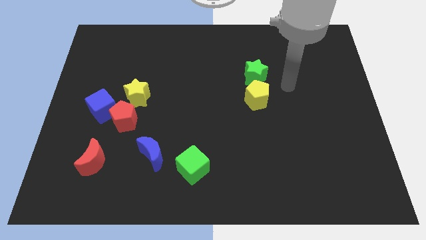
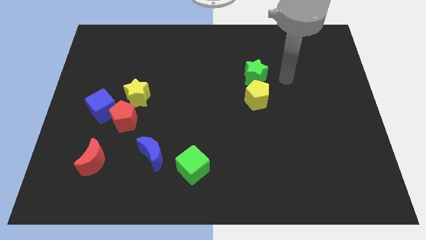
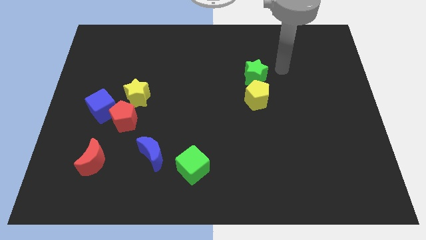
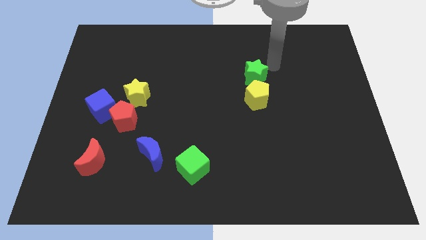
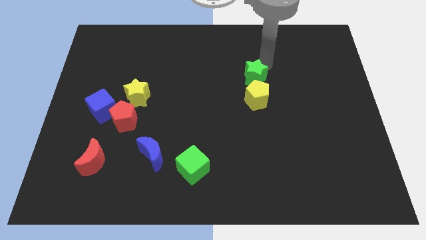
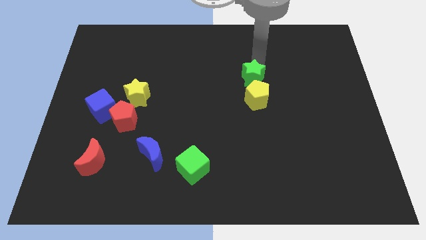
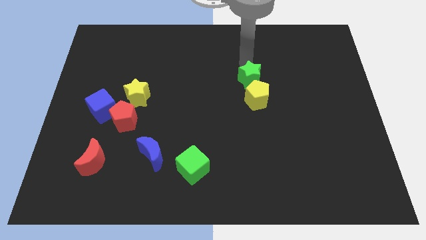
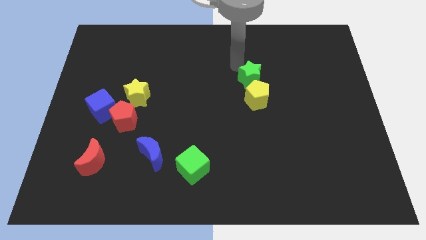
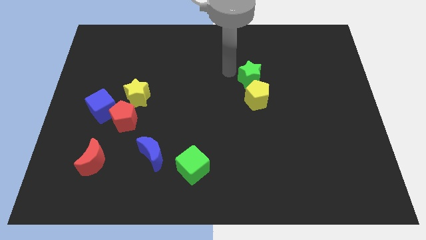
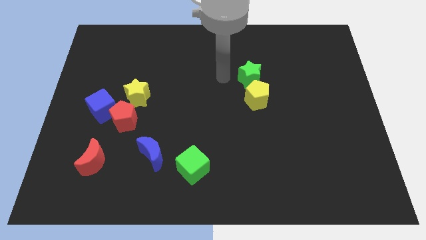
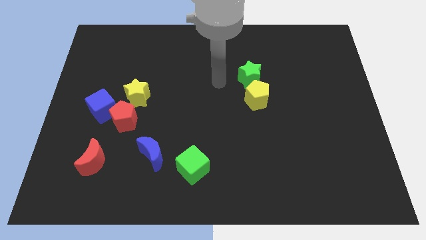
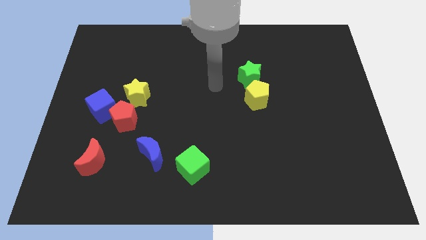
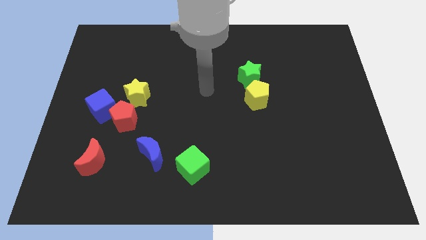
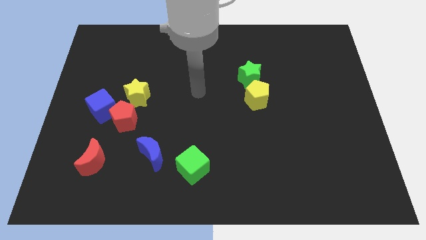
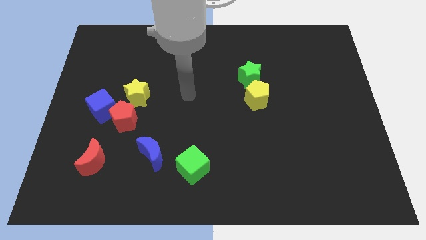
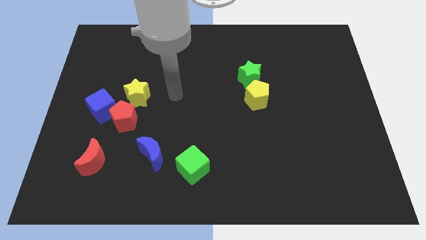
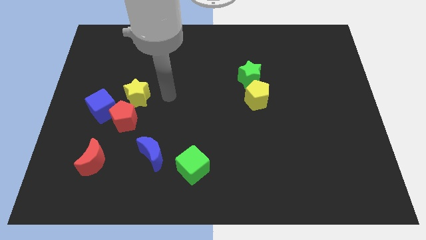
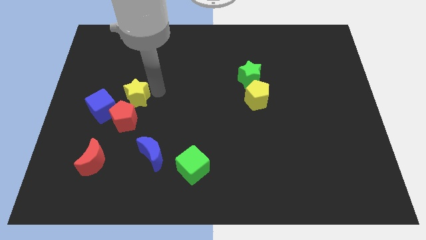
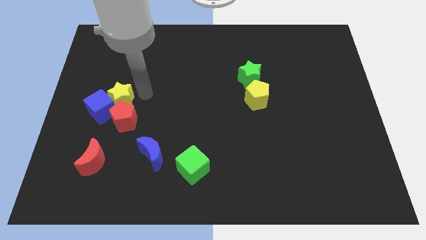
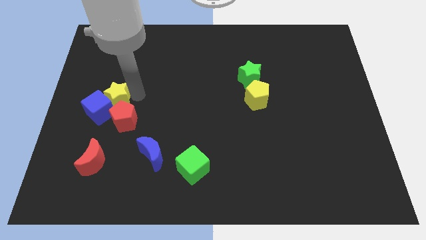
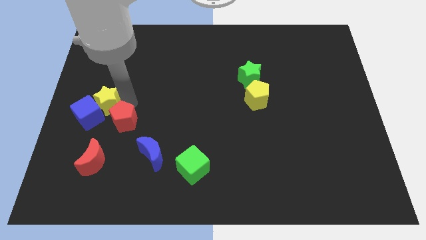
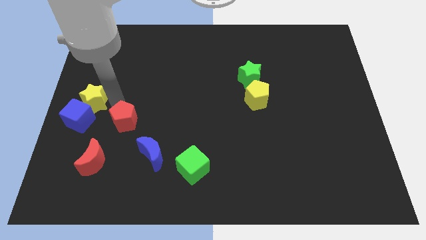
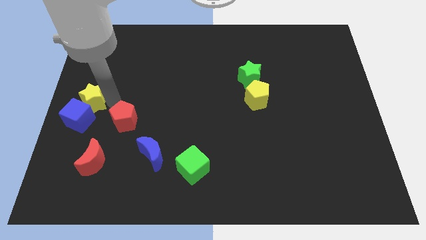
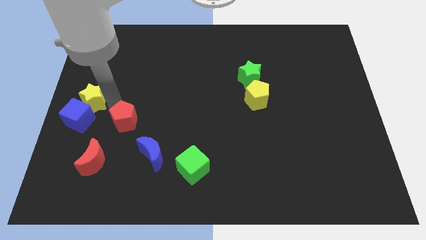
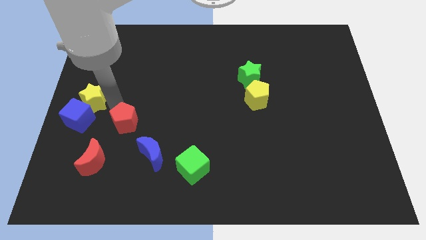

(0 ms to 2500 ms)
move the red pentagon away from the blue cube and yellow star

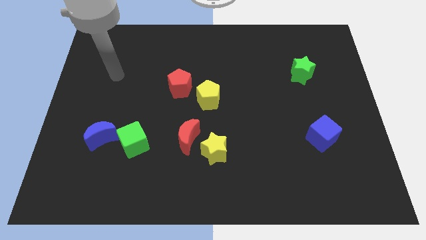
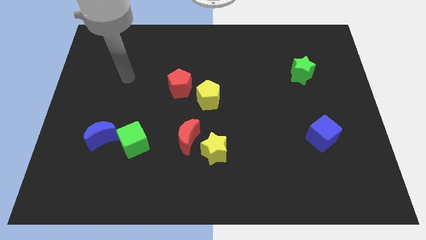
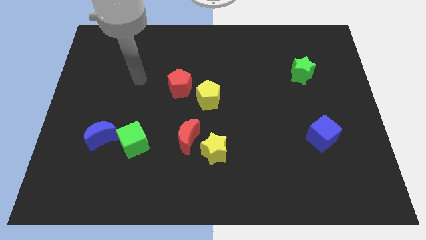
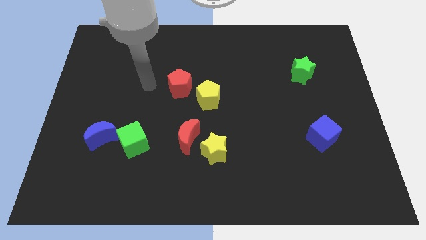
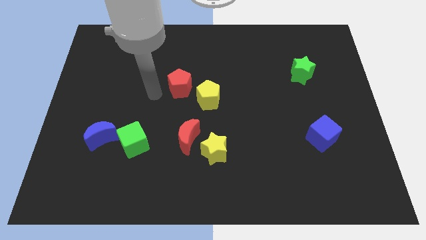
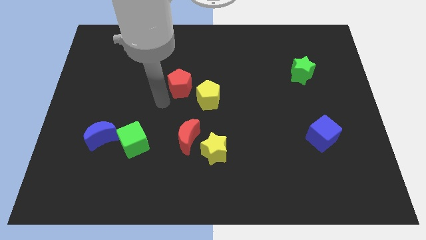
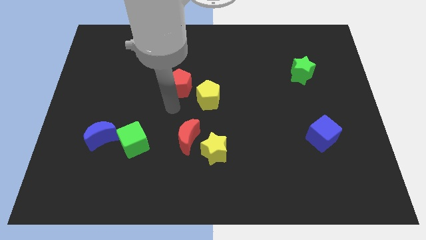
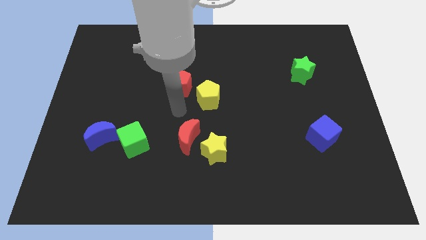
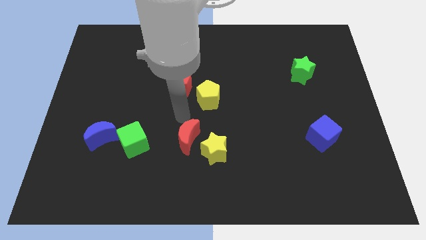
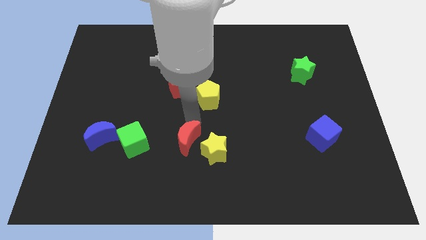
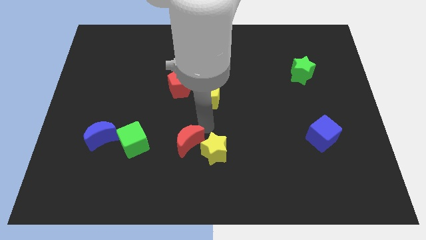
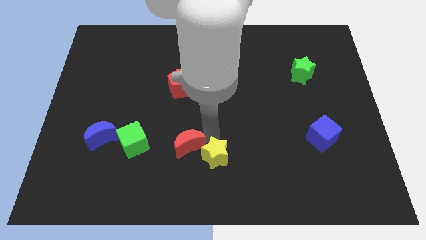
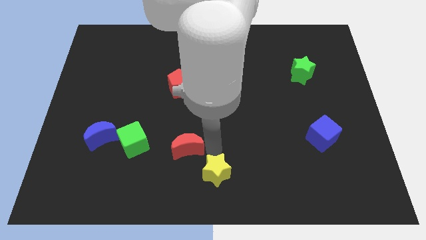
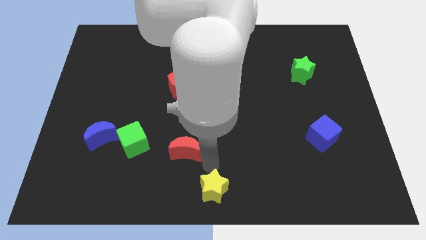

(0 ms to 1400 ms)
move the red moon away from the yellow star

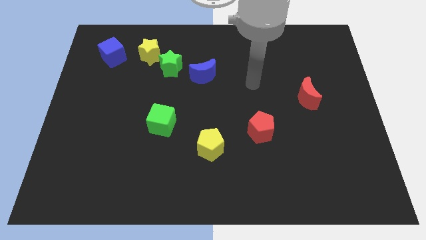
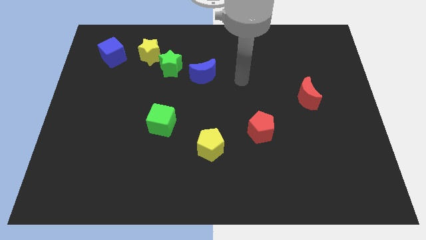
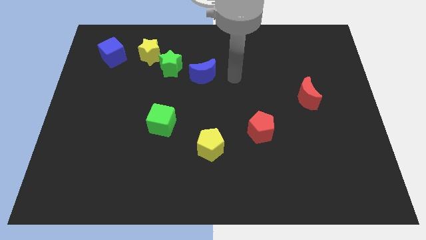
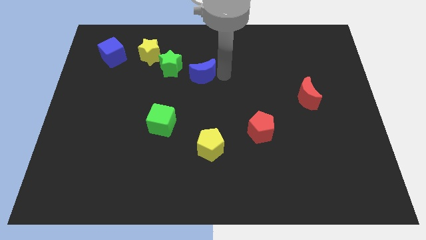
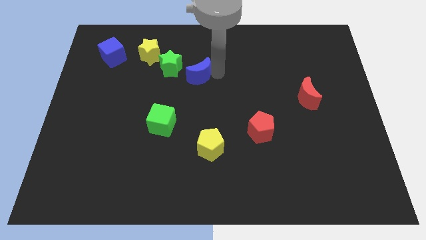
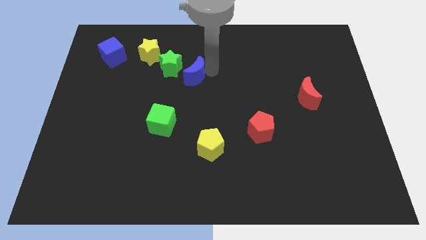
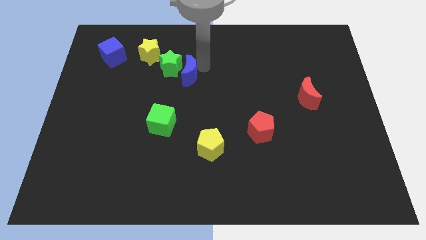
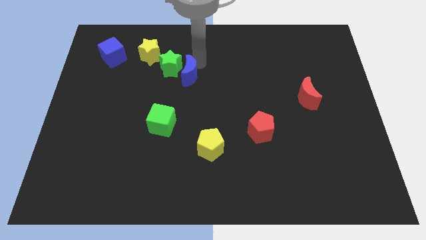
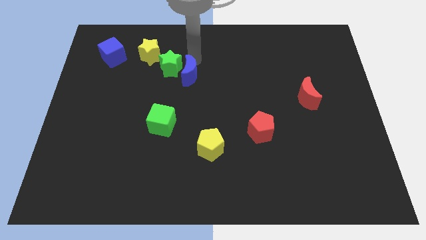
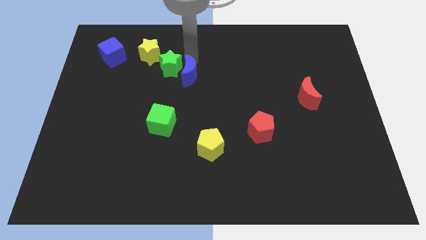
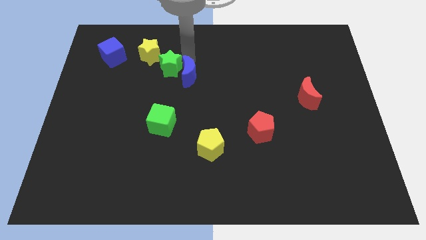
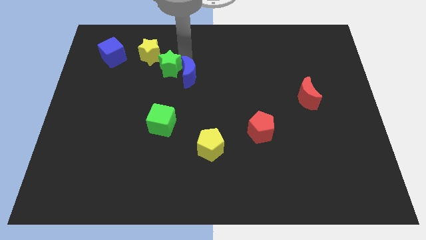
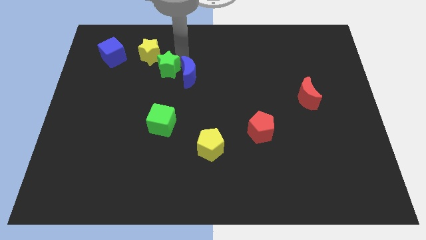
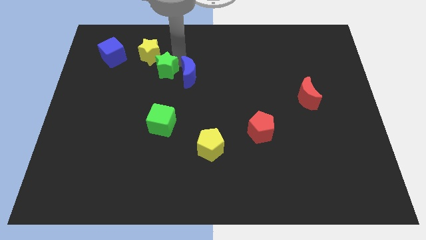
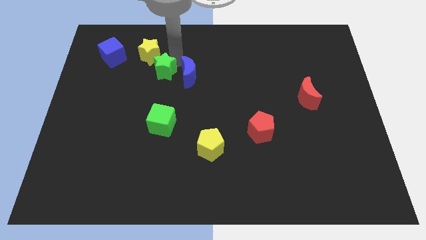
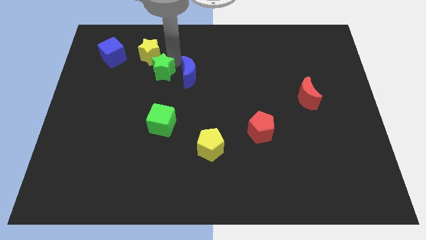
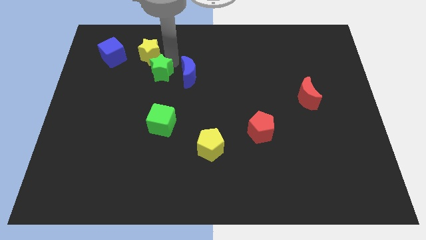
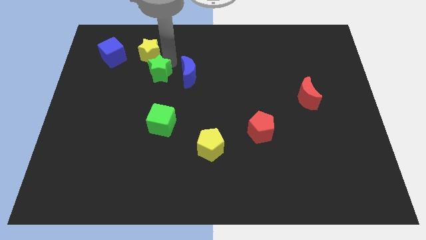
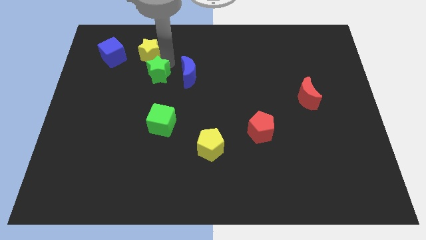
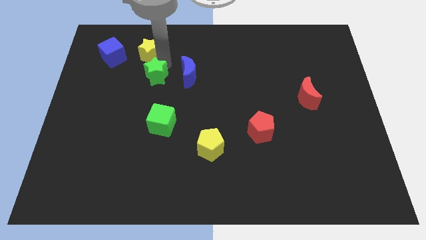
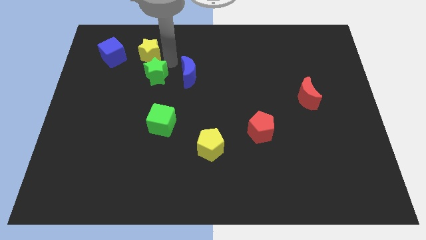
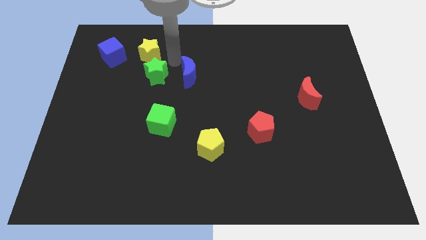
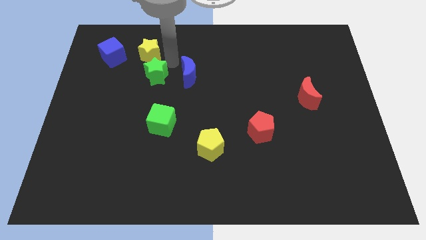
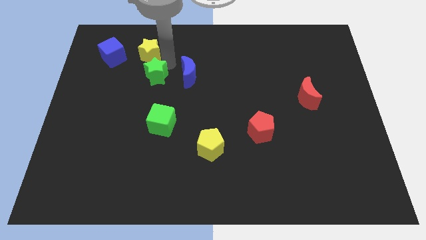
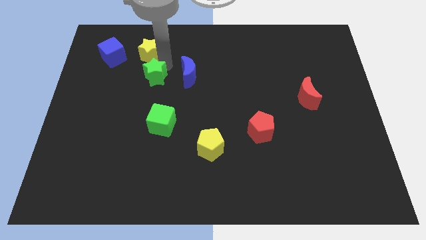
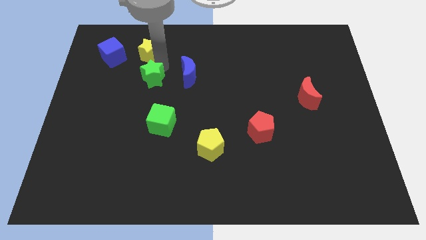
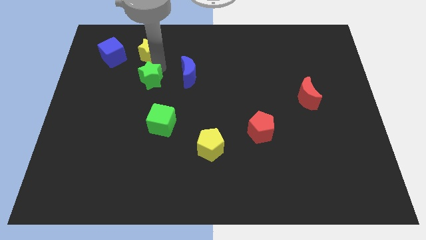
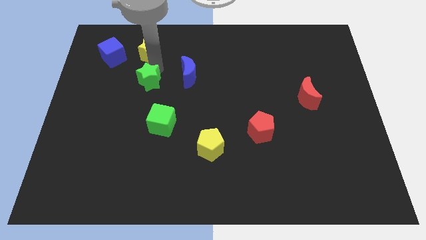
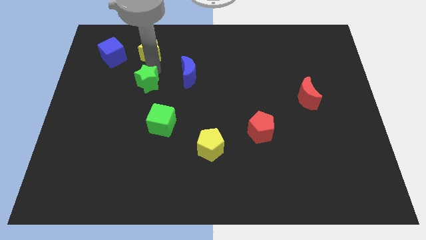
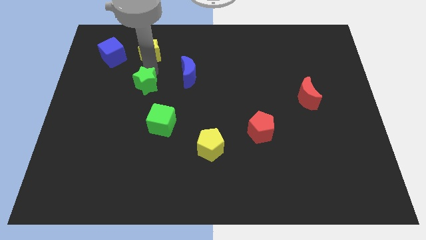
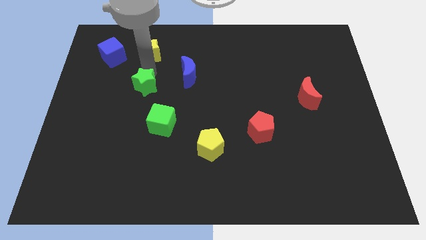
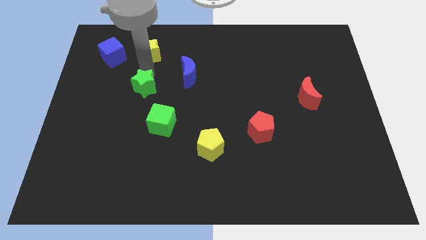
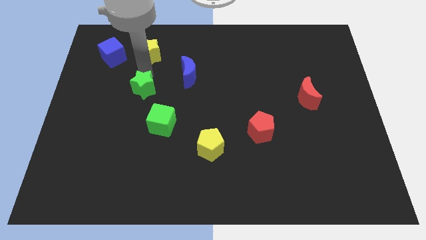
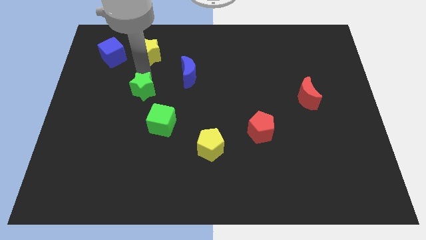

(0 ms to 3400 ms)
separate the green star from the yellow star and blue moon

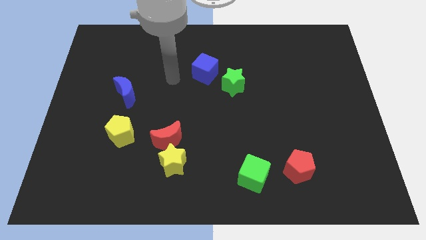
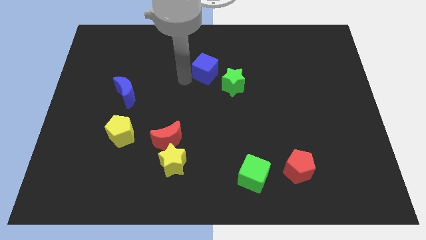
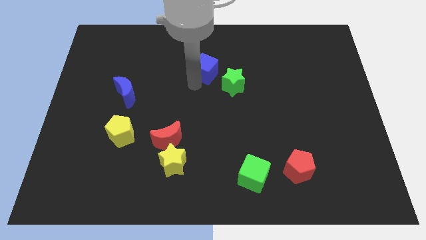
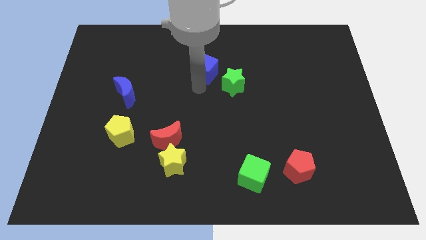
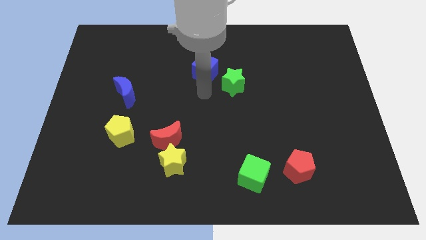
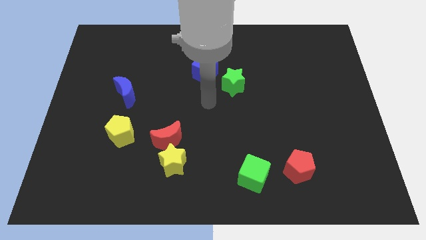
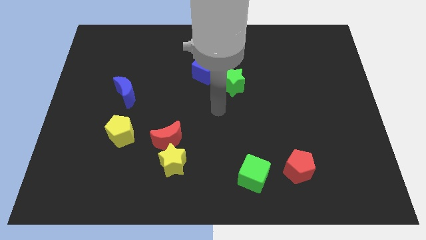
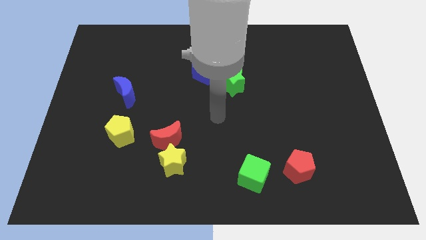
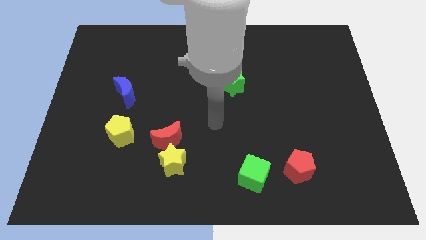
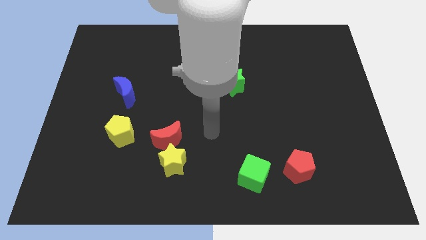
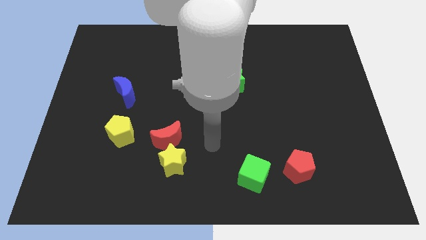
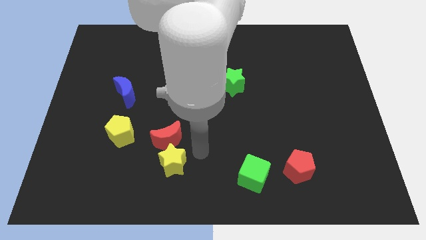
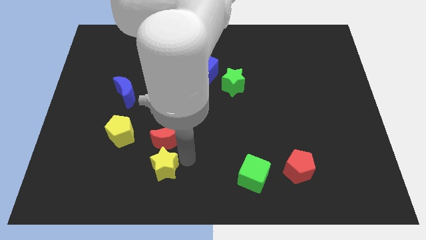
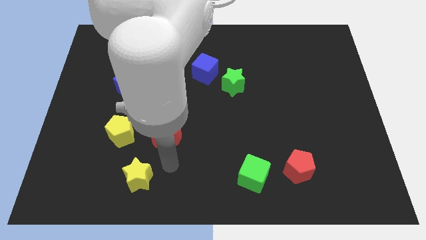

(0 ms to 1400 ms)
separate the red moon from the yellow star

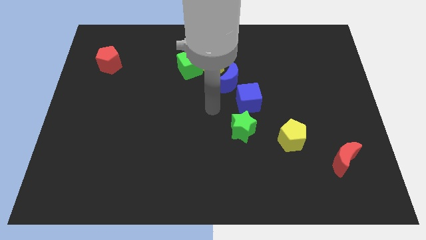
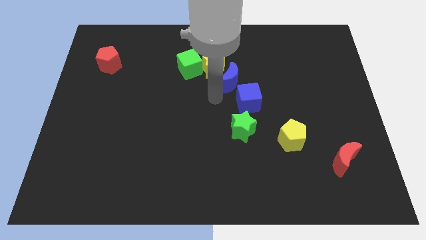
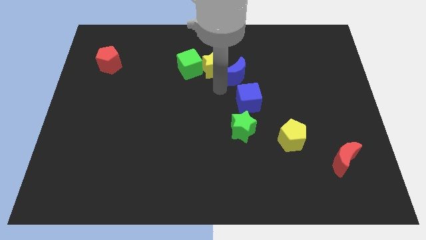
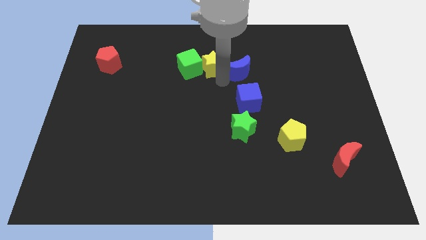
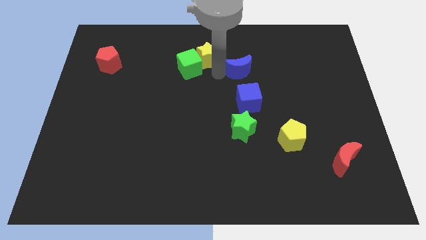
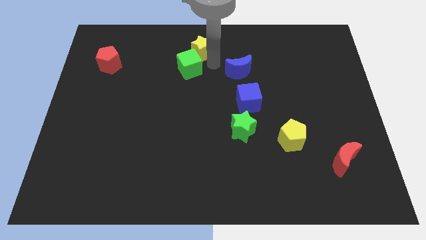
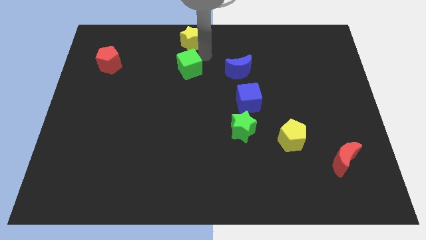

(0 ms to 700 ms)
move the green cube away from the yellow star
